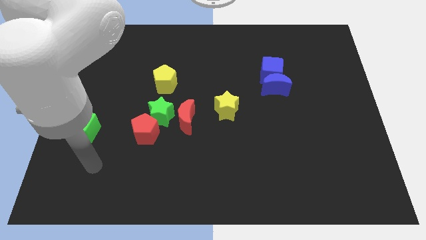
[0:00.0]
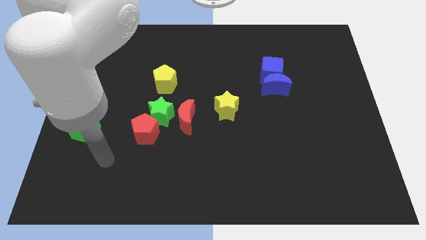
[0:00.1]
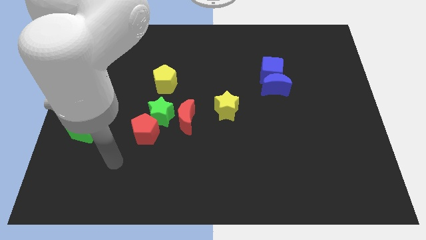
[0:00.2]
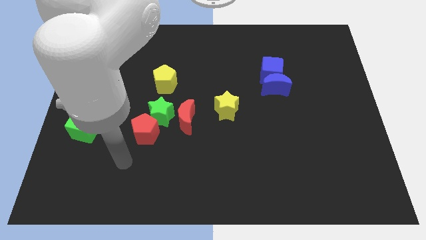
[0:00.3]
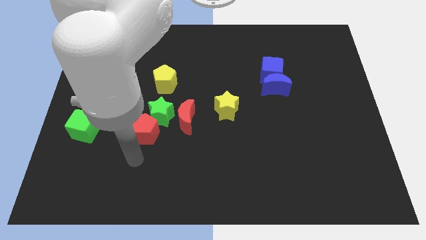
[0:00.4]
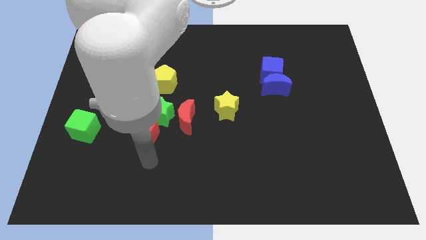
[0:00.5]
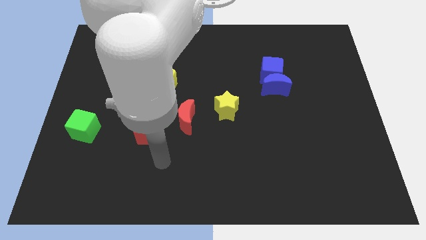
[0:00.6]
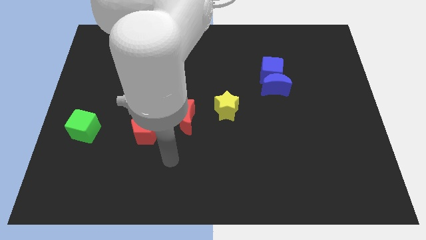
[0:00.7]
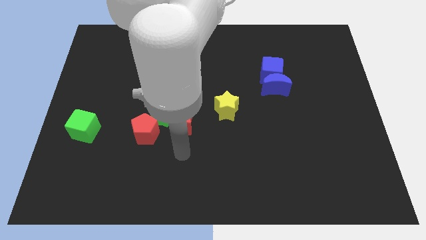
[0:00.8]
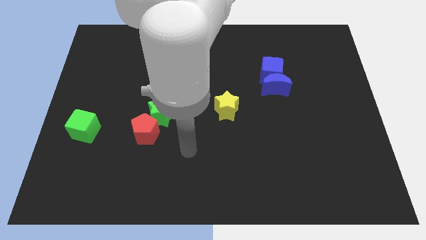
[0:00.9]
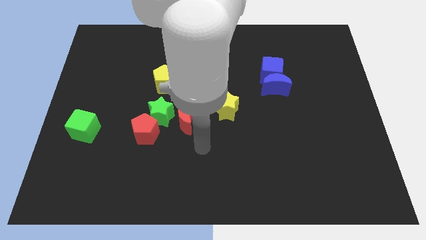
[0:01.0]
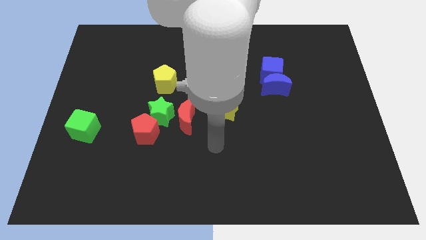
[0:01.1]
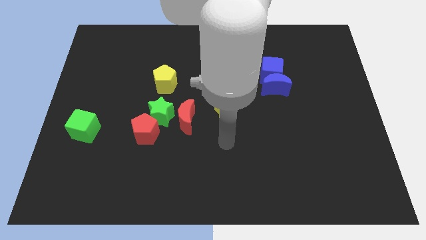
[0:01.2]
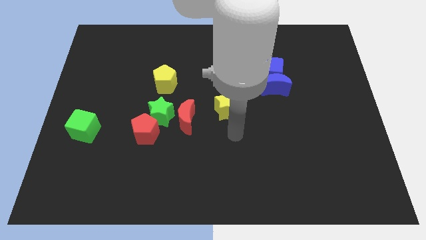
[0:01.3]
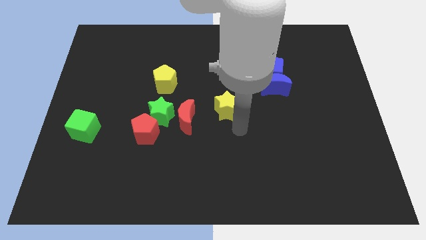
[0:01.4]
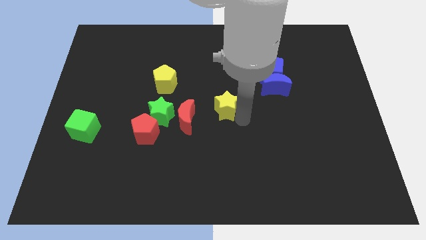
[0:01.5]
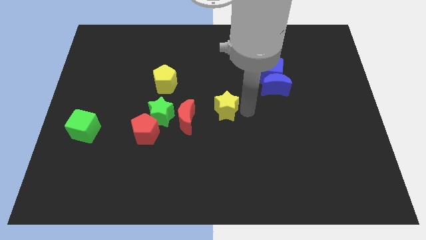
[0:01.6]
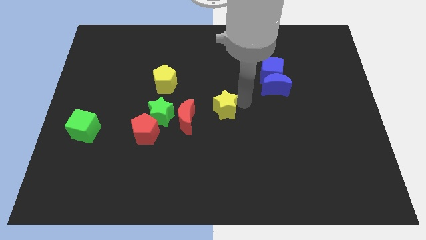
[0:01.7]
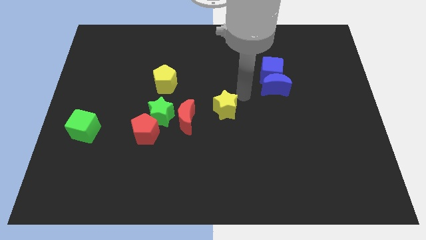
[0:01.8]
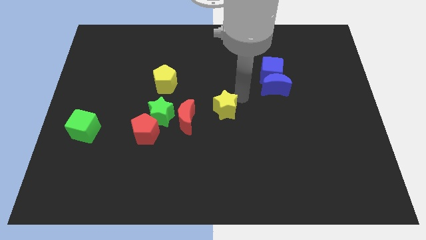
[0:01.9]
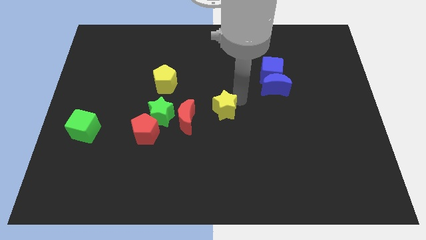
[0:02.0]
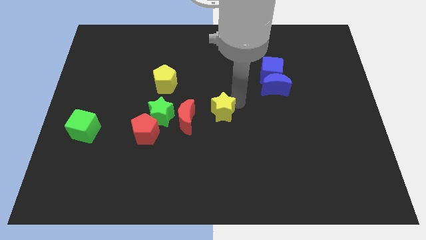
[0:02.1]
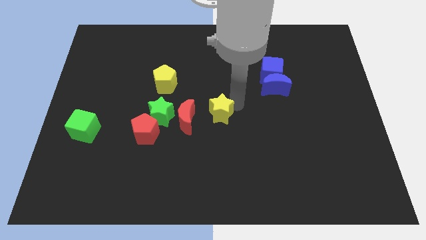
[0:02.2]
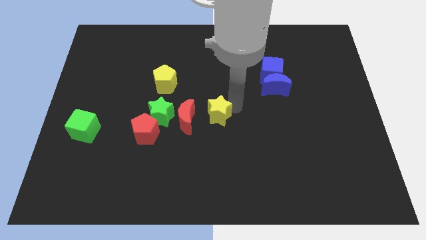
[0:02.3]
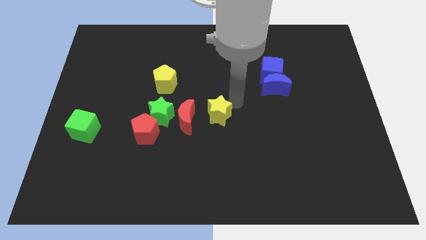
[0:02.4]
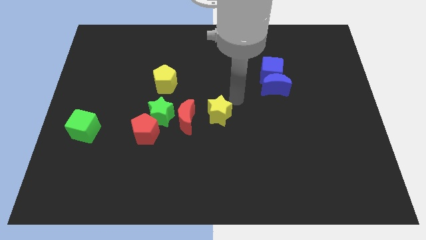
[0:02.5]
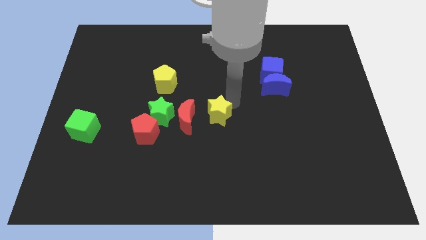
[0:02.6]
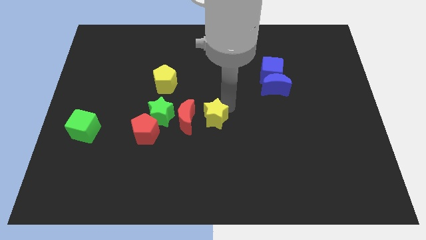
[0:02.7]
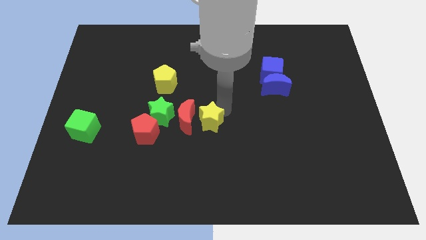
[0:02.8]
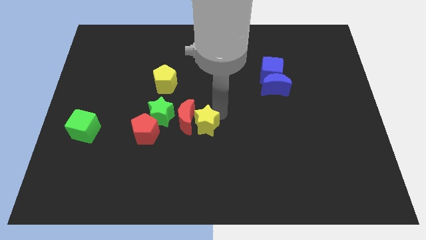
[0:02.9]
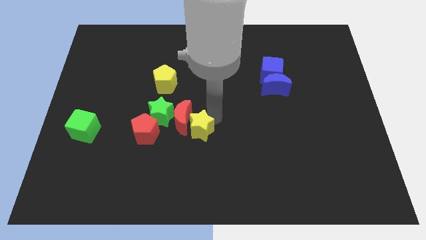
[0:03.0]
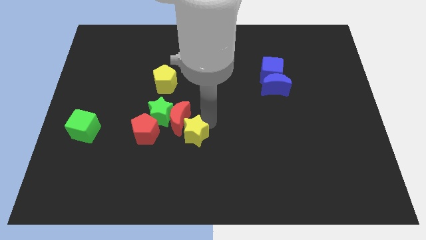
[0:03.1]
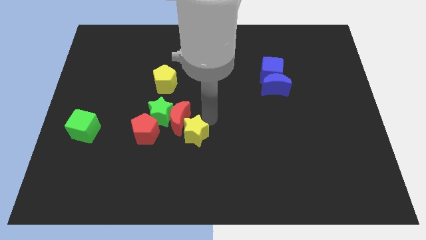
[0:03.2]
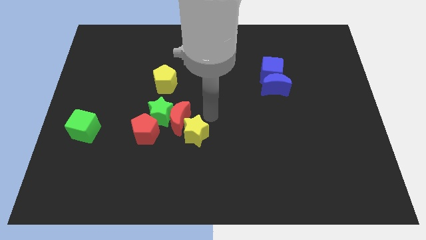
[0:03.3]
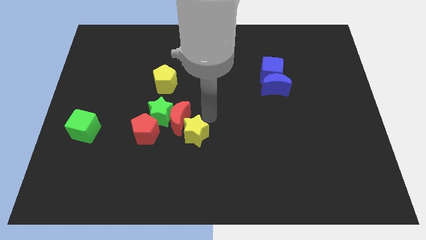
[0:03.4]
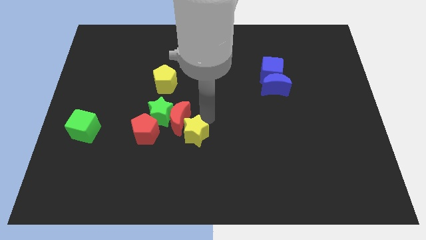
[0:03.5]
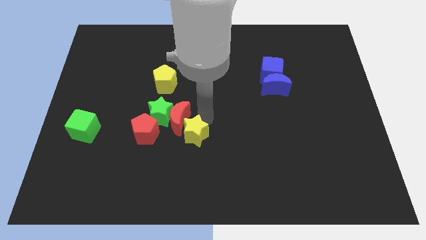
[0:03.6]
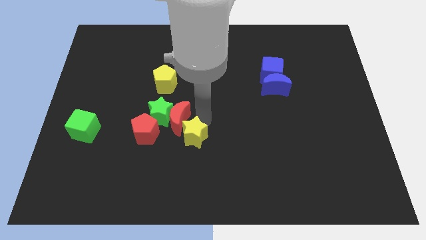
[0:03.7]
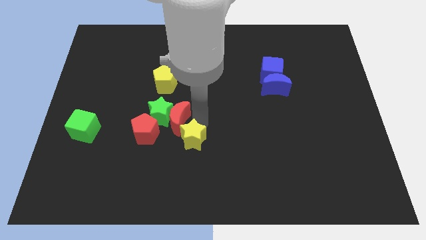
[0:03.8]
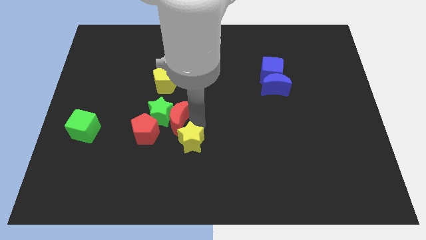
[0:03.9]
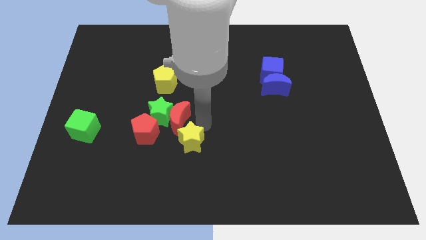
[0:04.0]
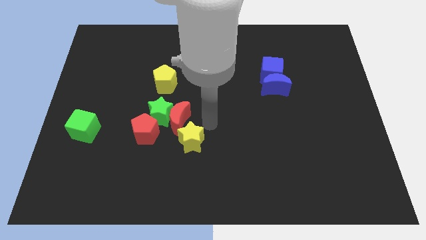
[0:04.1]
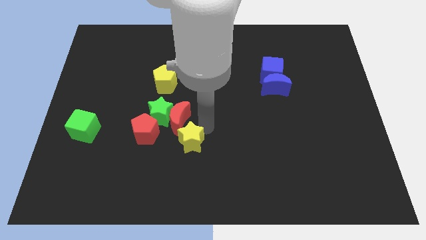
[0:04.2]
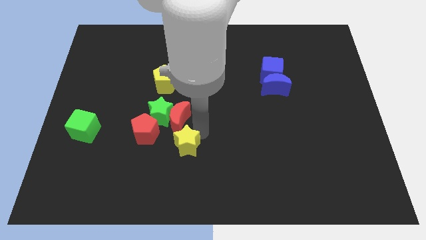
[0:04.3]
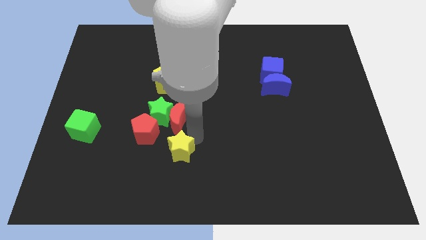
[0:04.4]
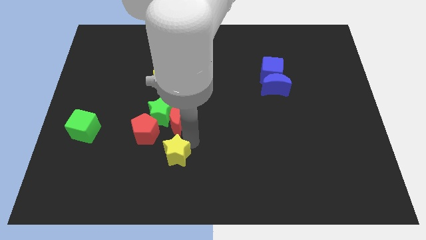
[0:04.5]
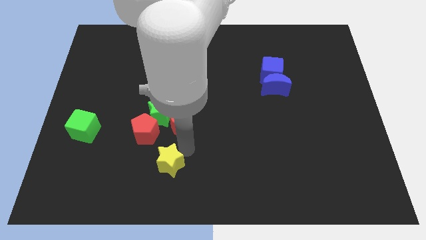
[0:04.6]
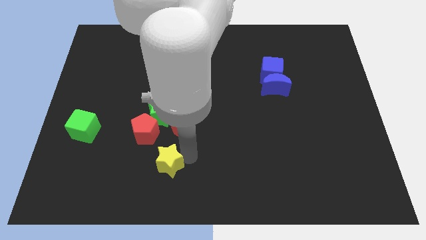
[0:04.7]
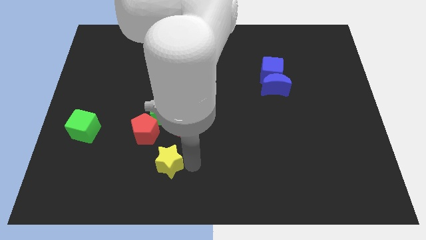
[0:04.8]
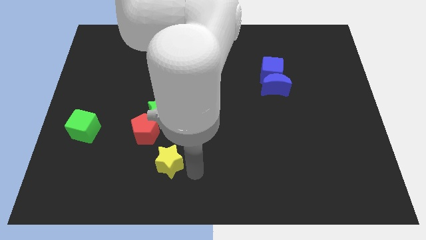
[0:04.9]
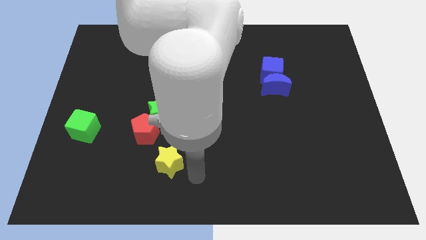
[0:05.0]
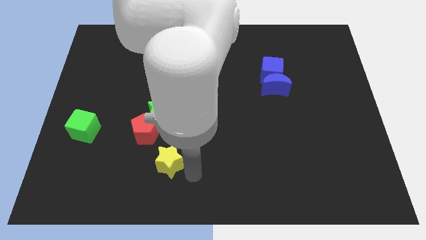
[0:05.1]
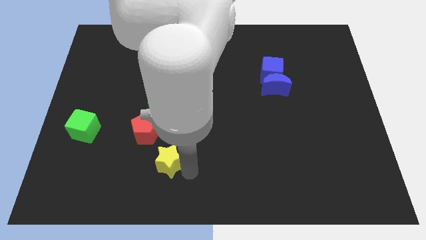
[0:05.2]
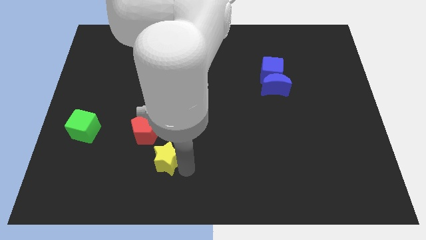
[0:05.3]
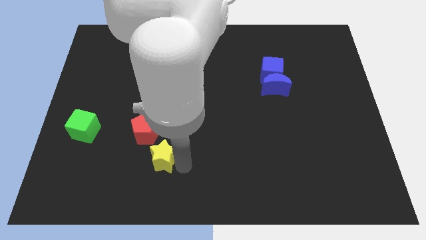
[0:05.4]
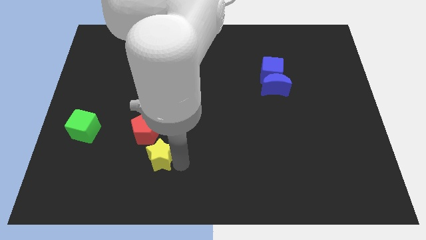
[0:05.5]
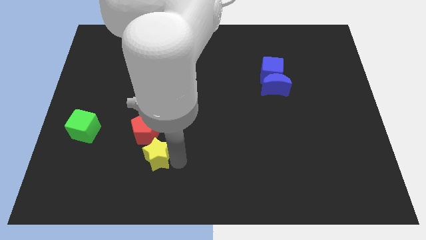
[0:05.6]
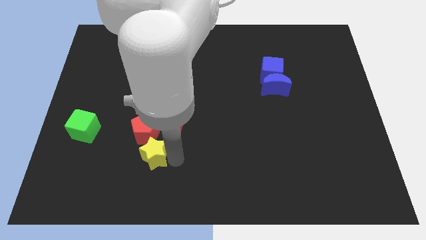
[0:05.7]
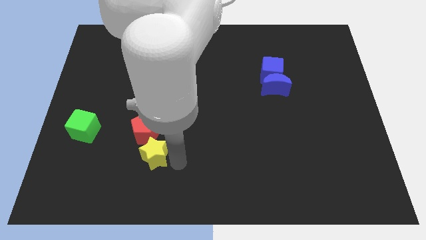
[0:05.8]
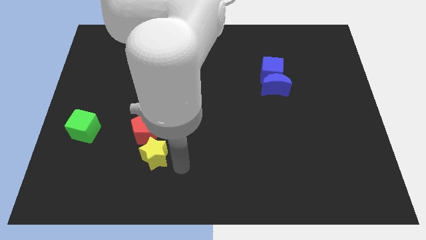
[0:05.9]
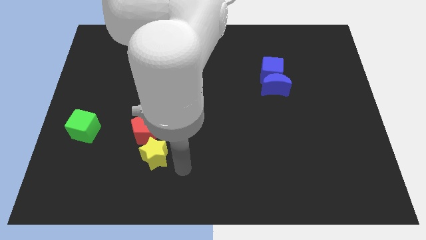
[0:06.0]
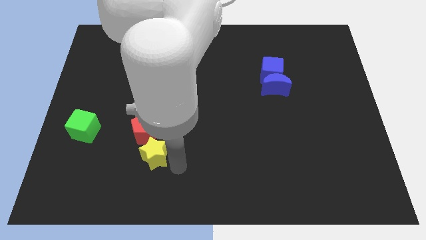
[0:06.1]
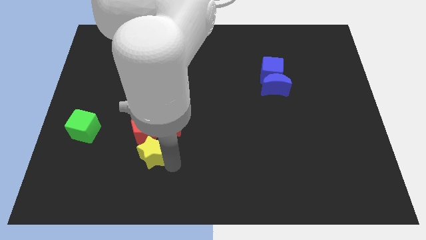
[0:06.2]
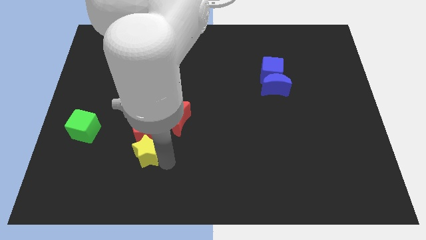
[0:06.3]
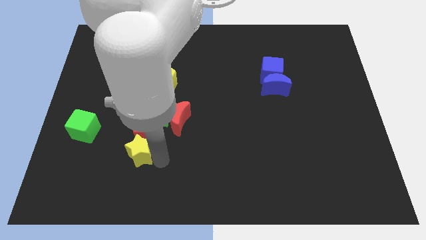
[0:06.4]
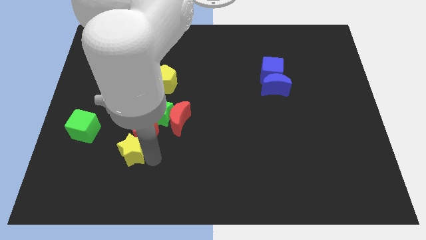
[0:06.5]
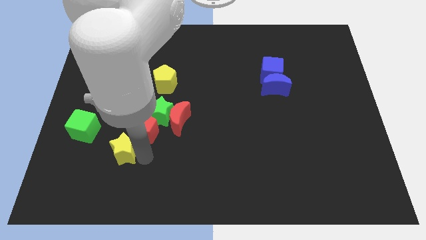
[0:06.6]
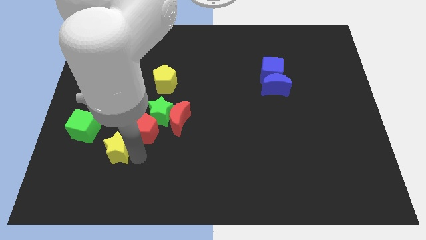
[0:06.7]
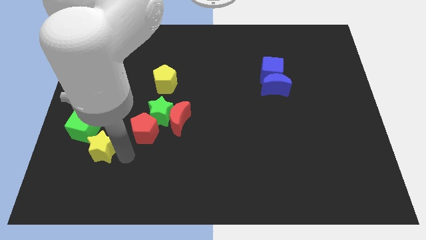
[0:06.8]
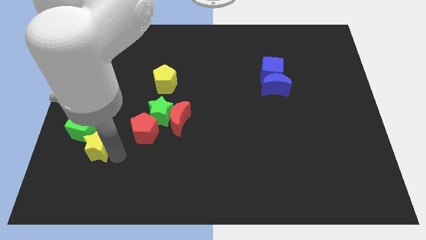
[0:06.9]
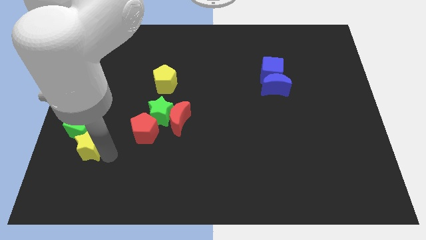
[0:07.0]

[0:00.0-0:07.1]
push the yellow star towards the green cube

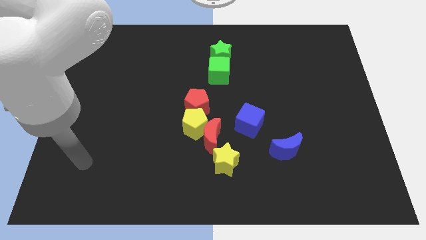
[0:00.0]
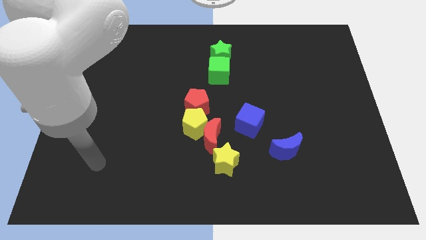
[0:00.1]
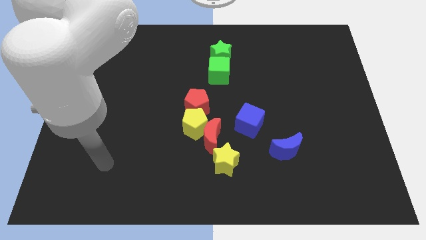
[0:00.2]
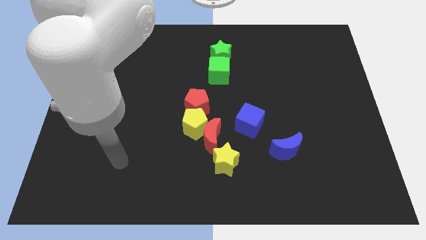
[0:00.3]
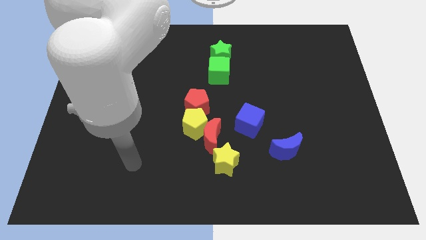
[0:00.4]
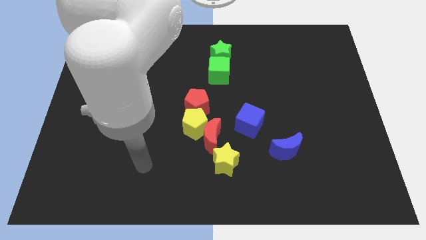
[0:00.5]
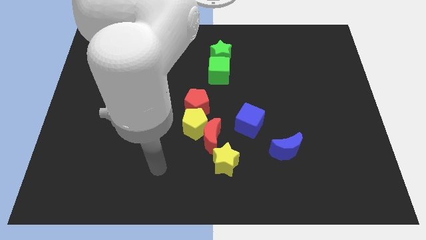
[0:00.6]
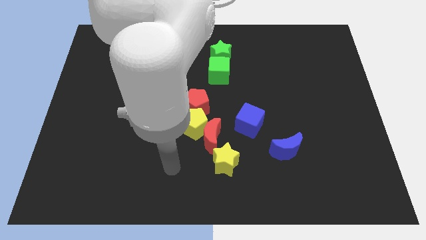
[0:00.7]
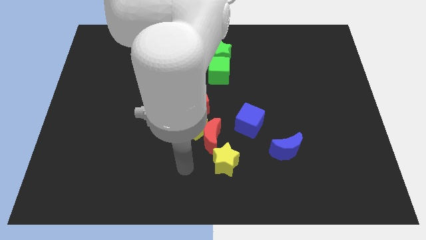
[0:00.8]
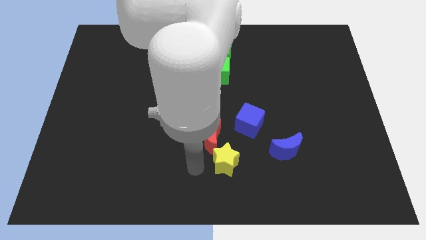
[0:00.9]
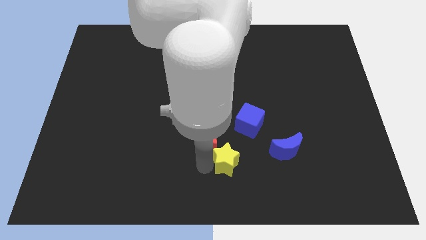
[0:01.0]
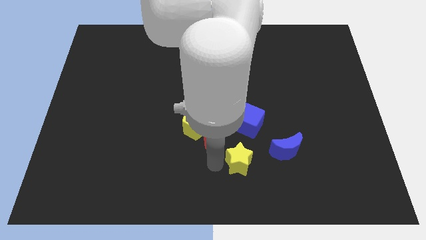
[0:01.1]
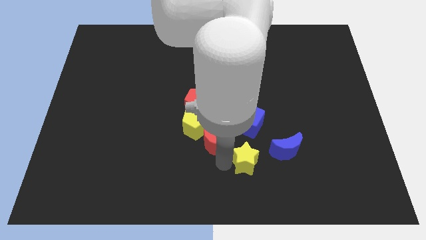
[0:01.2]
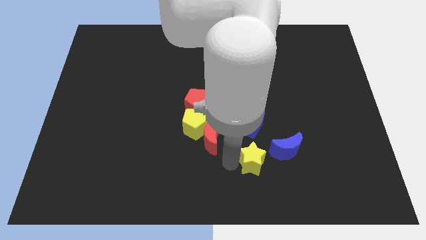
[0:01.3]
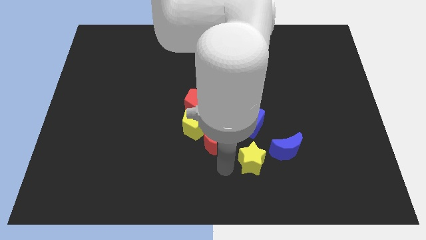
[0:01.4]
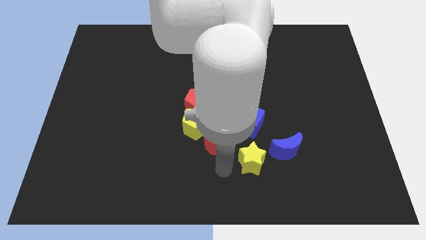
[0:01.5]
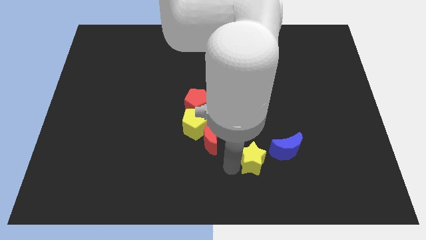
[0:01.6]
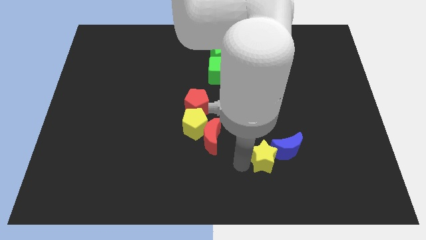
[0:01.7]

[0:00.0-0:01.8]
put the yellow star to the blue moon
